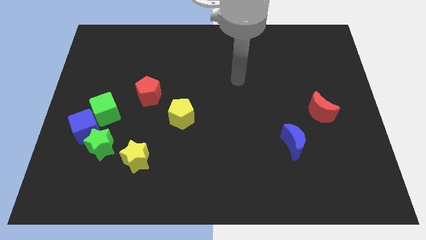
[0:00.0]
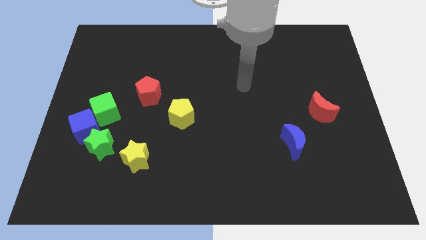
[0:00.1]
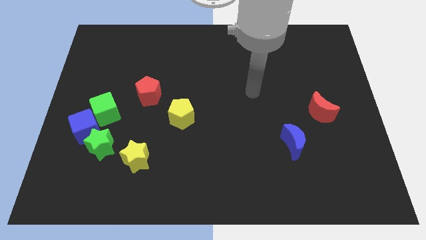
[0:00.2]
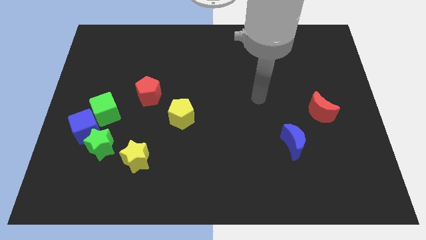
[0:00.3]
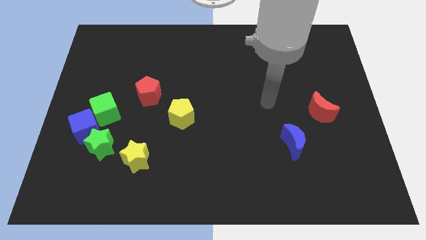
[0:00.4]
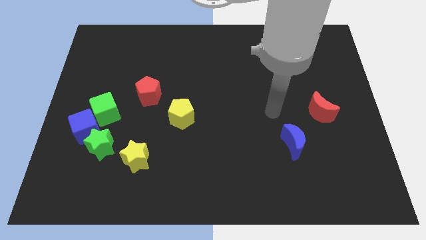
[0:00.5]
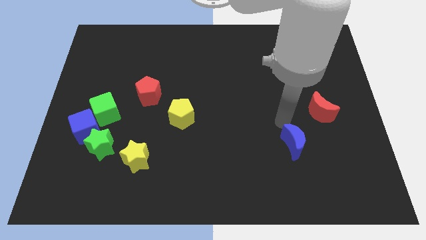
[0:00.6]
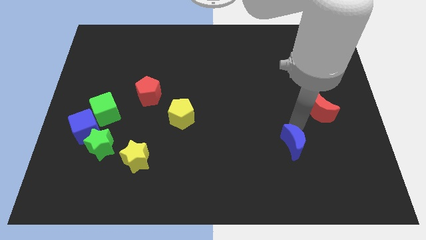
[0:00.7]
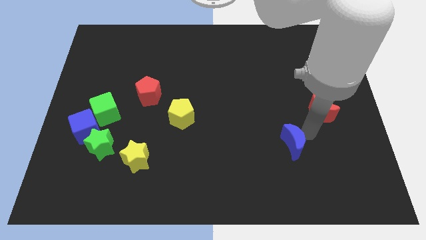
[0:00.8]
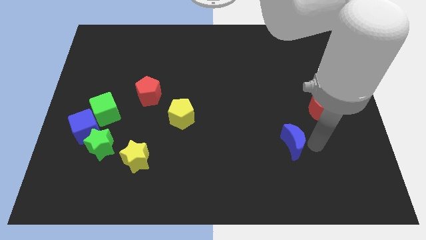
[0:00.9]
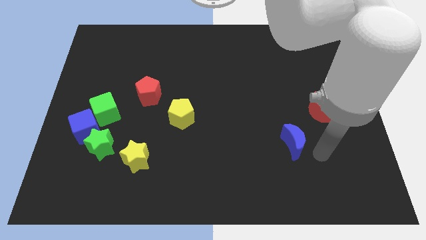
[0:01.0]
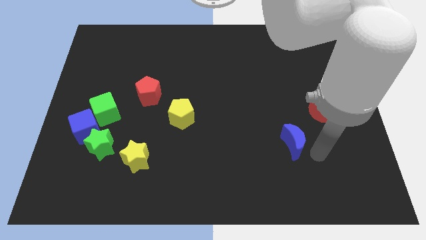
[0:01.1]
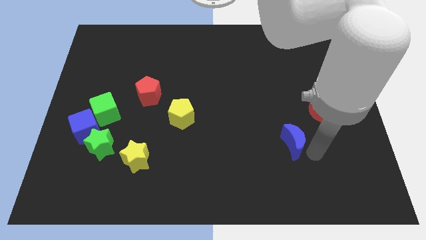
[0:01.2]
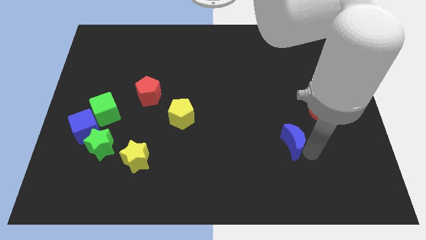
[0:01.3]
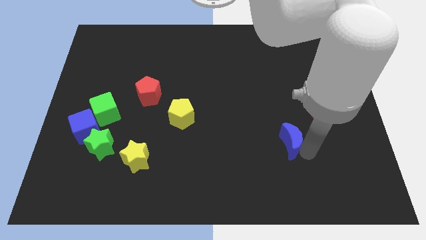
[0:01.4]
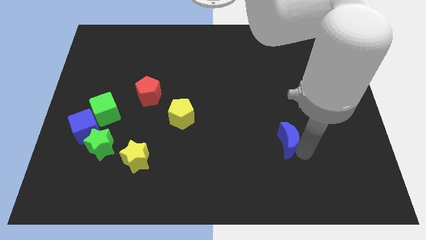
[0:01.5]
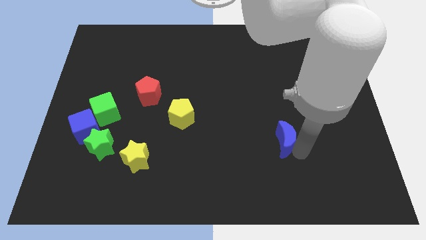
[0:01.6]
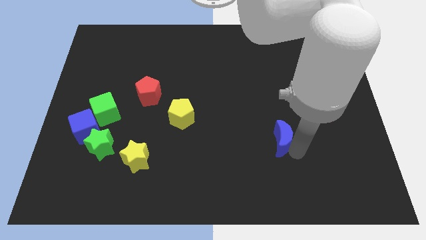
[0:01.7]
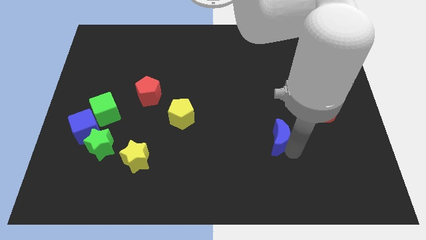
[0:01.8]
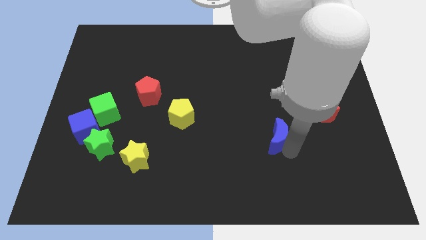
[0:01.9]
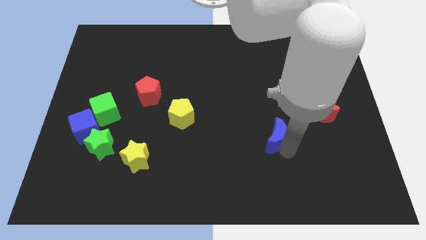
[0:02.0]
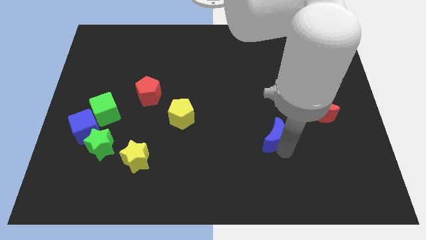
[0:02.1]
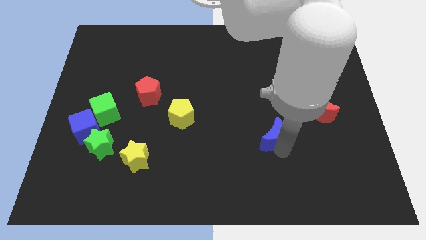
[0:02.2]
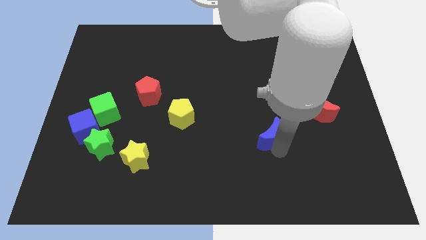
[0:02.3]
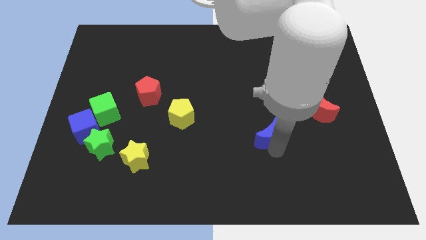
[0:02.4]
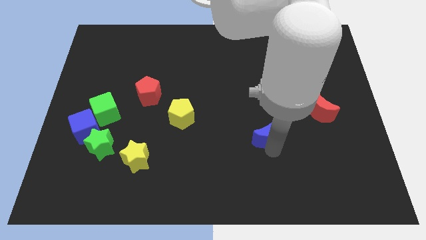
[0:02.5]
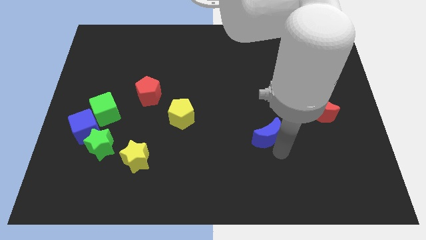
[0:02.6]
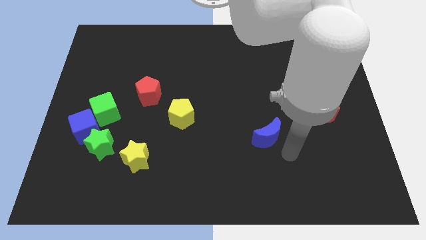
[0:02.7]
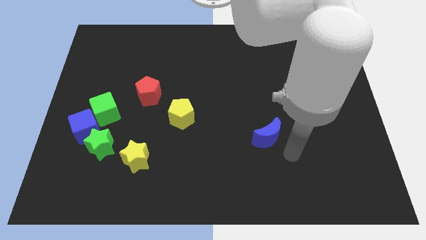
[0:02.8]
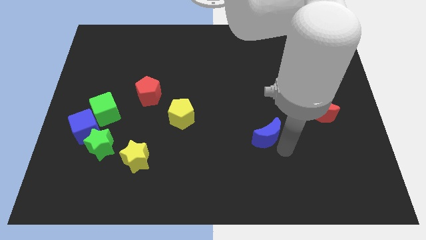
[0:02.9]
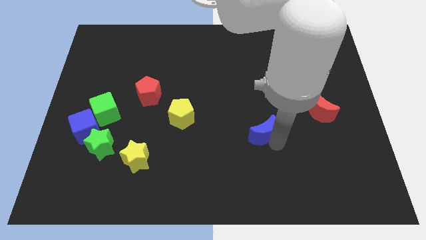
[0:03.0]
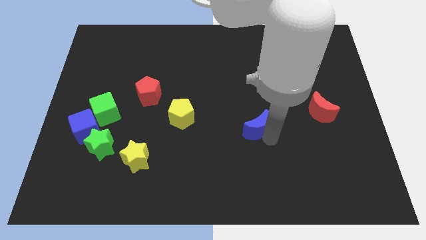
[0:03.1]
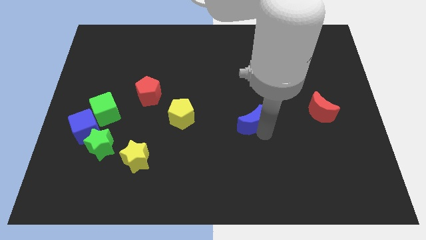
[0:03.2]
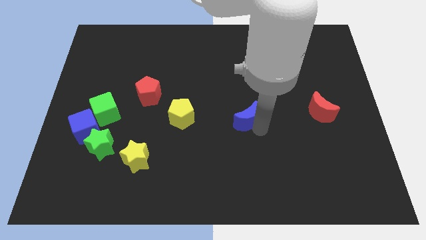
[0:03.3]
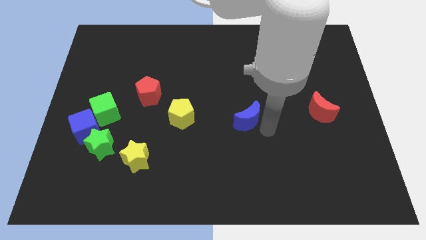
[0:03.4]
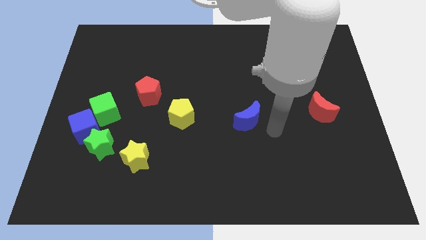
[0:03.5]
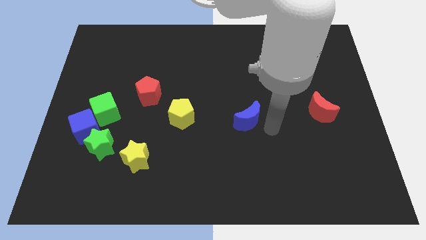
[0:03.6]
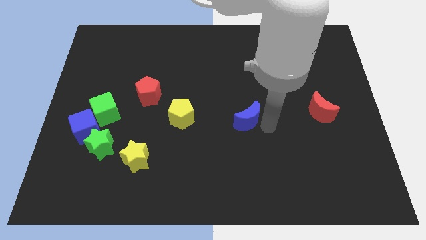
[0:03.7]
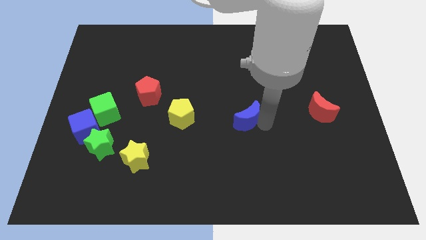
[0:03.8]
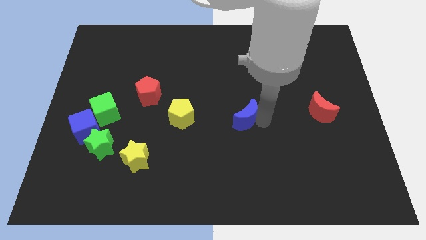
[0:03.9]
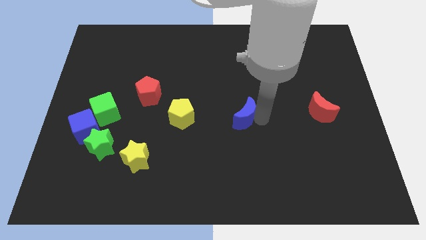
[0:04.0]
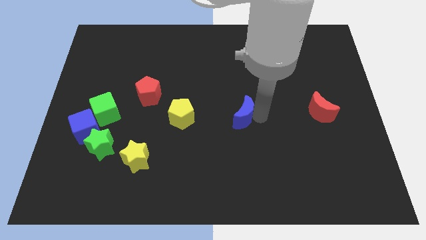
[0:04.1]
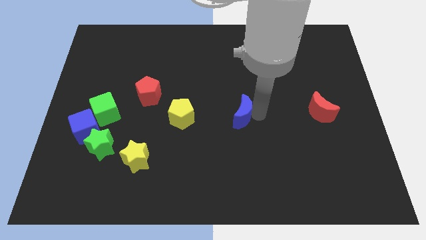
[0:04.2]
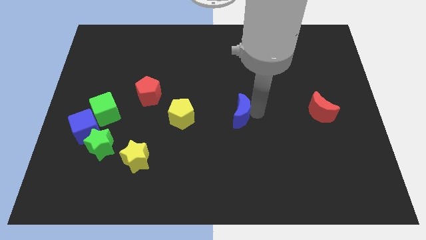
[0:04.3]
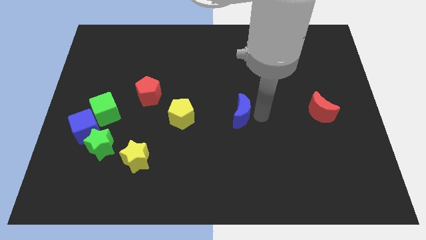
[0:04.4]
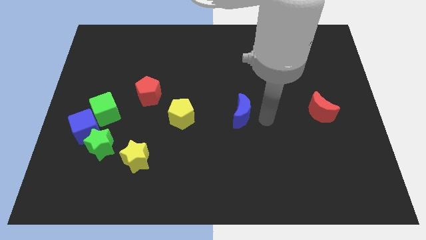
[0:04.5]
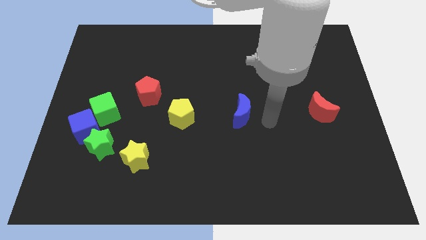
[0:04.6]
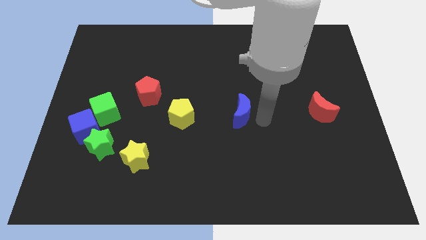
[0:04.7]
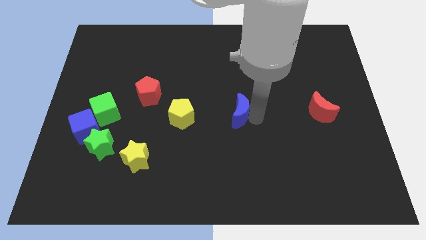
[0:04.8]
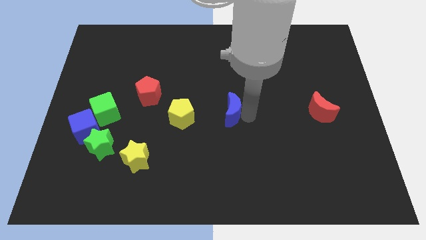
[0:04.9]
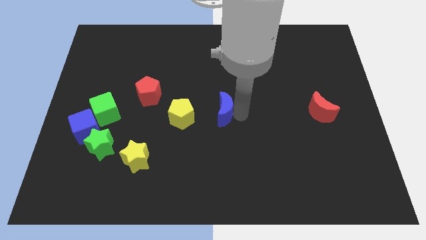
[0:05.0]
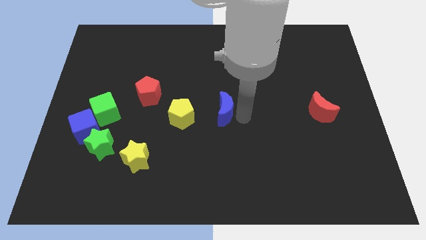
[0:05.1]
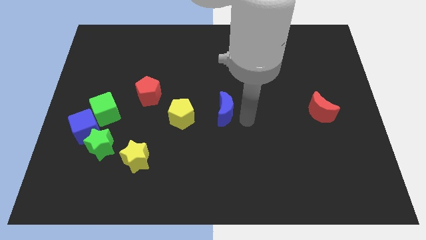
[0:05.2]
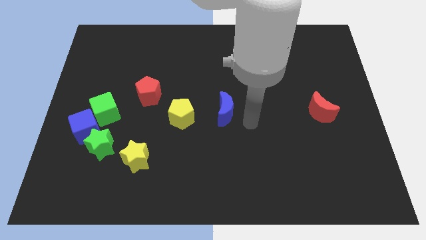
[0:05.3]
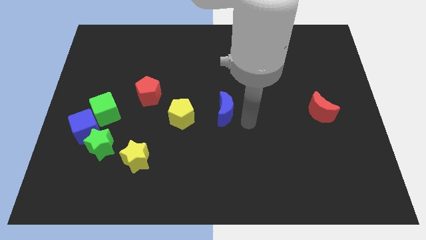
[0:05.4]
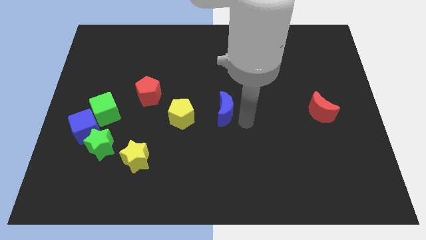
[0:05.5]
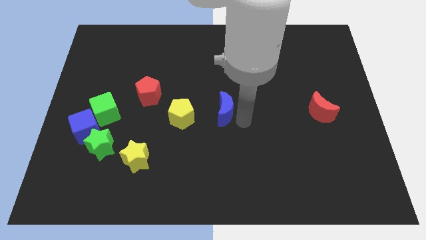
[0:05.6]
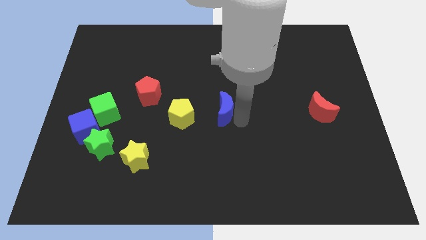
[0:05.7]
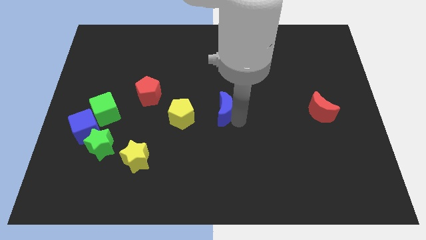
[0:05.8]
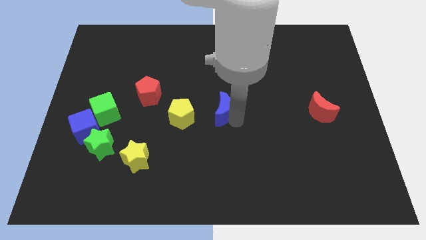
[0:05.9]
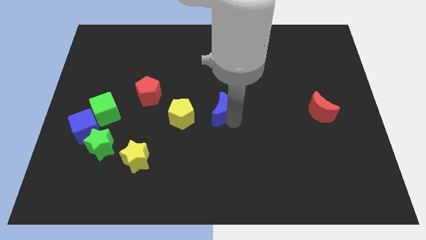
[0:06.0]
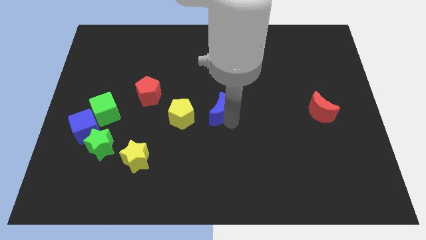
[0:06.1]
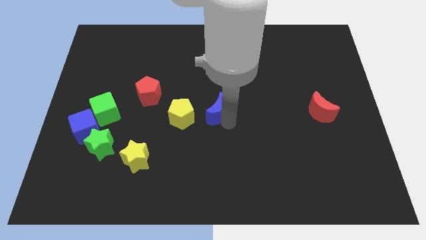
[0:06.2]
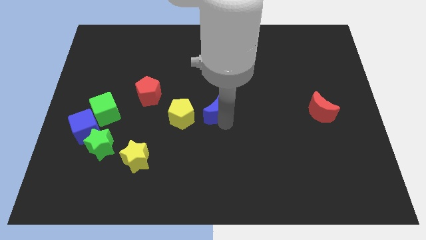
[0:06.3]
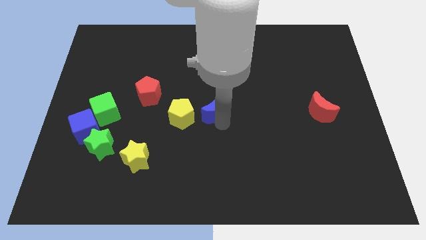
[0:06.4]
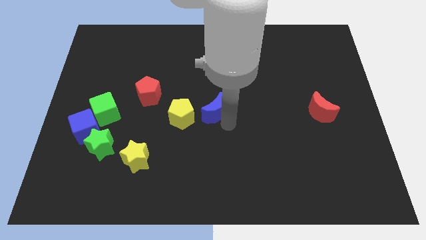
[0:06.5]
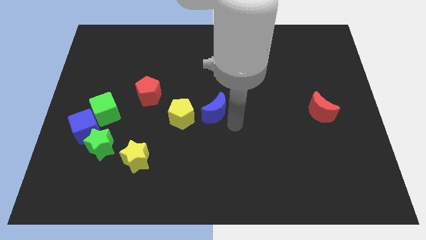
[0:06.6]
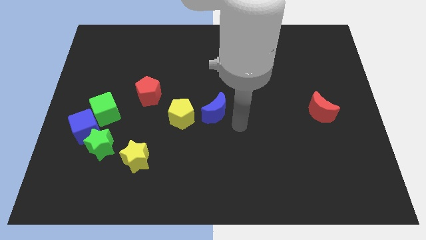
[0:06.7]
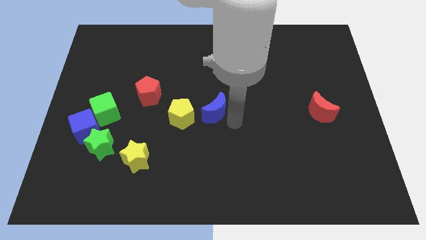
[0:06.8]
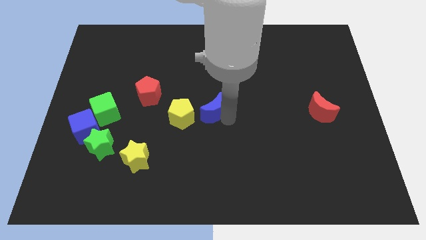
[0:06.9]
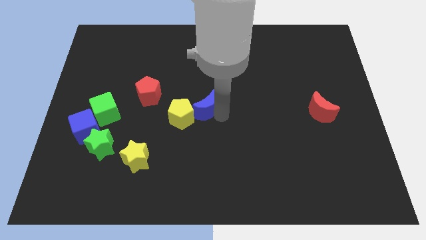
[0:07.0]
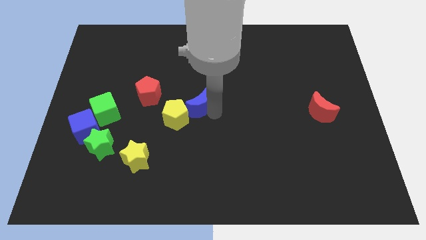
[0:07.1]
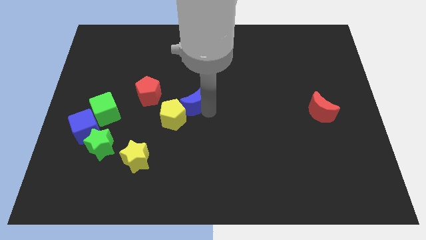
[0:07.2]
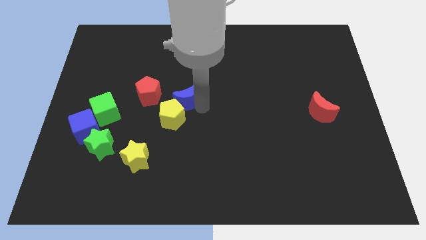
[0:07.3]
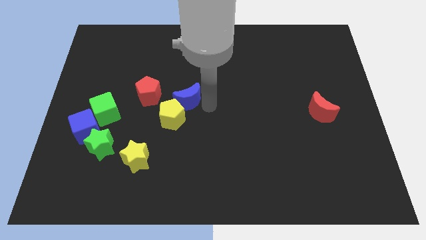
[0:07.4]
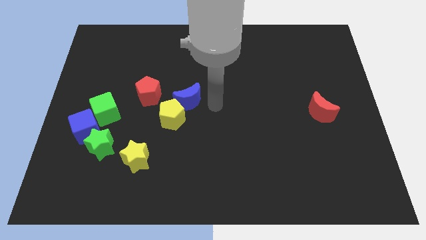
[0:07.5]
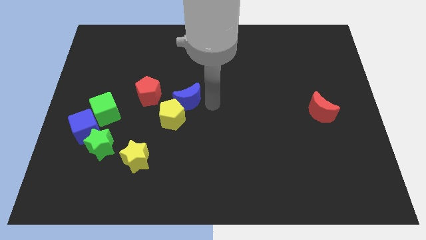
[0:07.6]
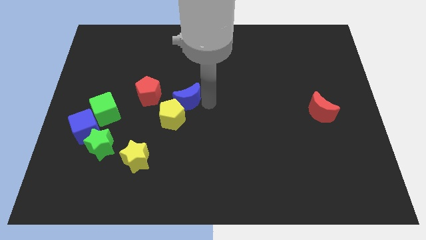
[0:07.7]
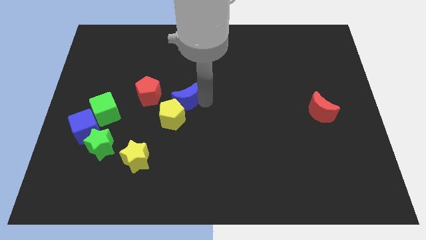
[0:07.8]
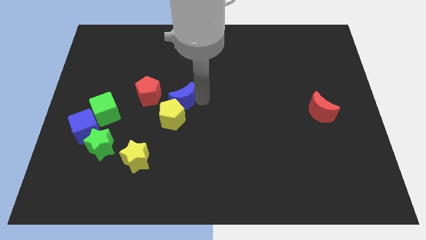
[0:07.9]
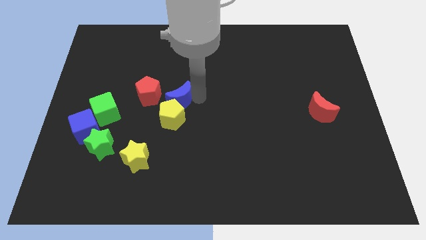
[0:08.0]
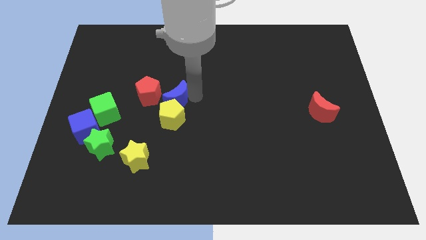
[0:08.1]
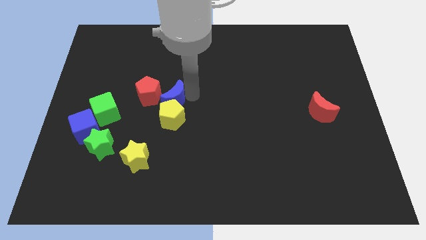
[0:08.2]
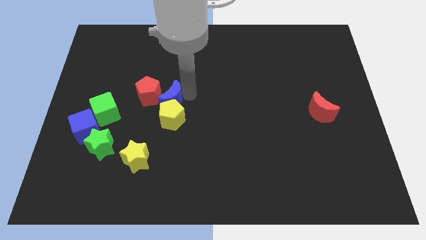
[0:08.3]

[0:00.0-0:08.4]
move the blue moon close to the red pentagon
